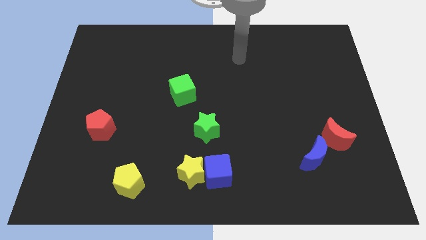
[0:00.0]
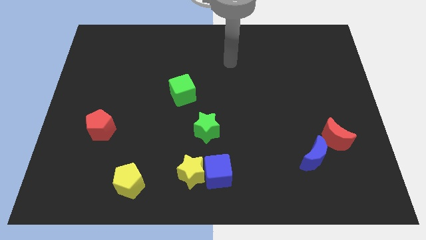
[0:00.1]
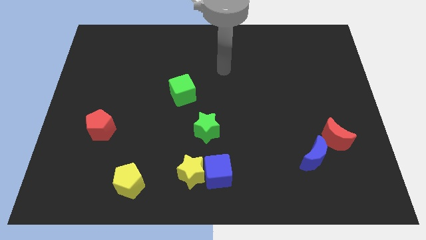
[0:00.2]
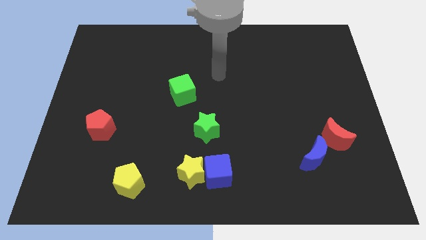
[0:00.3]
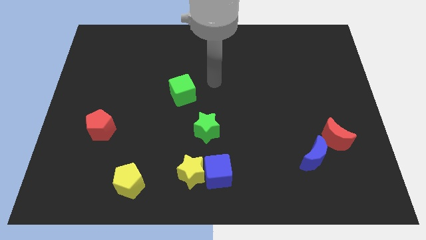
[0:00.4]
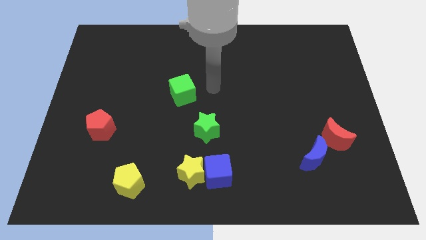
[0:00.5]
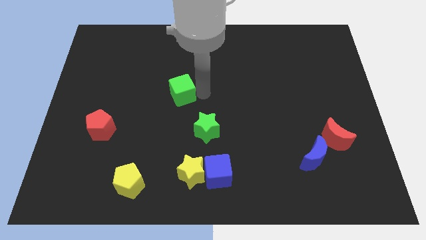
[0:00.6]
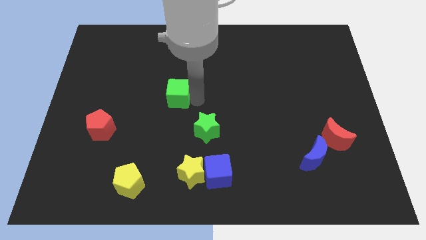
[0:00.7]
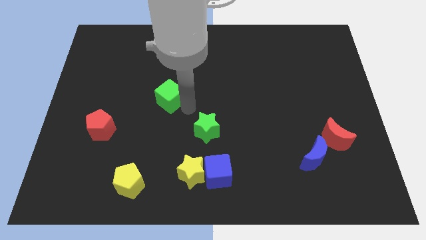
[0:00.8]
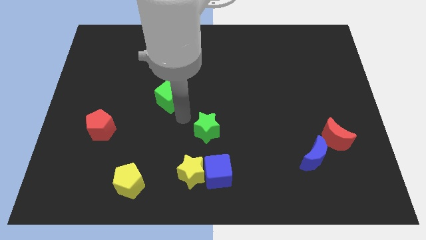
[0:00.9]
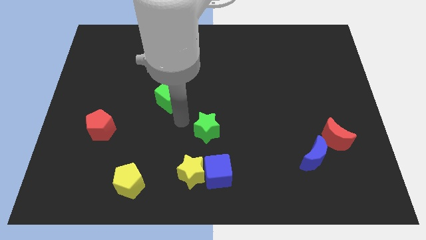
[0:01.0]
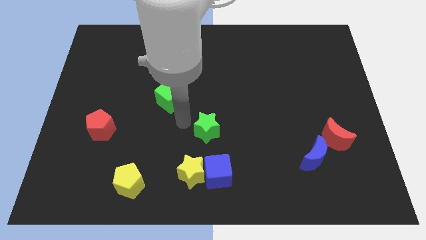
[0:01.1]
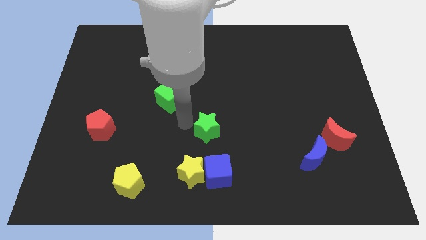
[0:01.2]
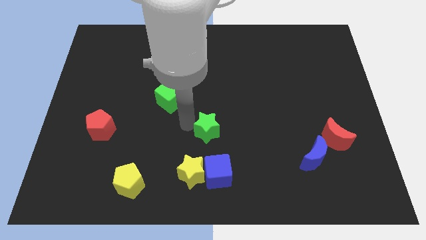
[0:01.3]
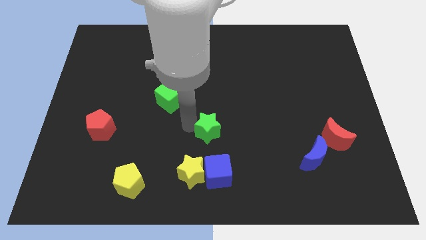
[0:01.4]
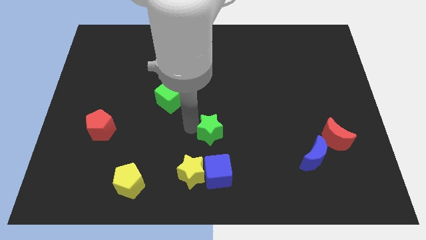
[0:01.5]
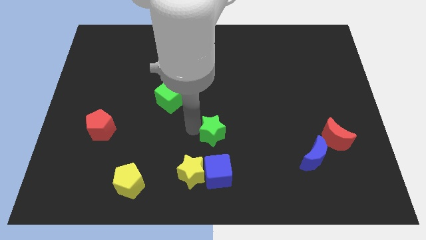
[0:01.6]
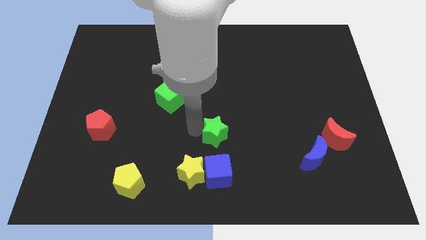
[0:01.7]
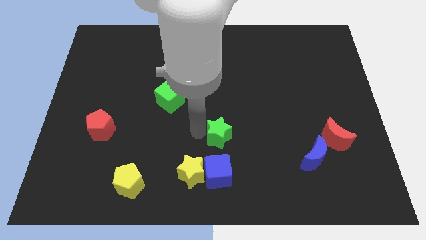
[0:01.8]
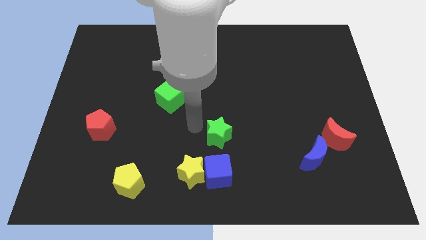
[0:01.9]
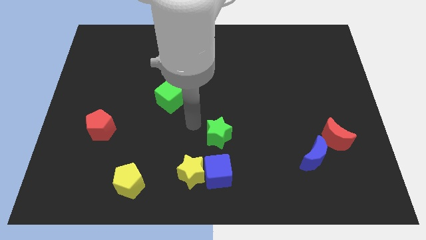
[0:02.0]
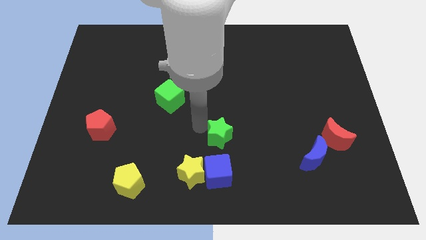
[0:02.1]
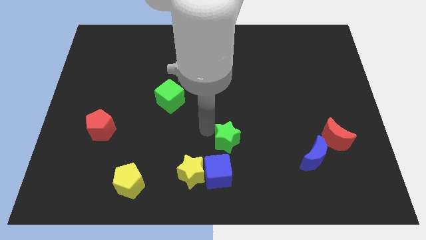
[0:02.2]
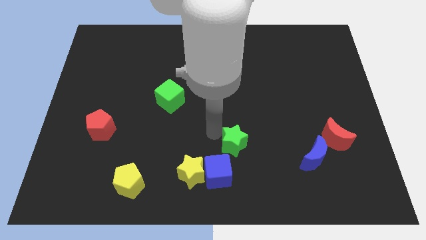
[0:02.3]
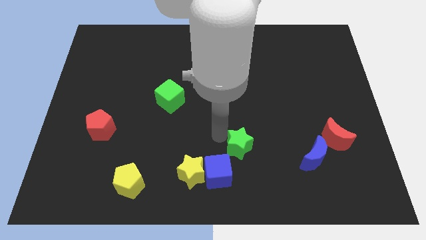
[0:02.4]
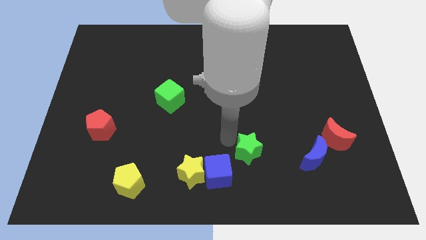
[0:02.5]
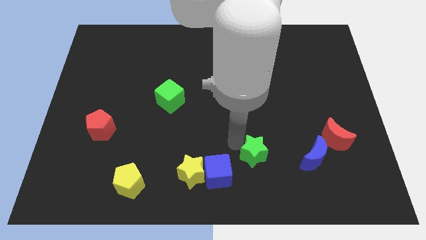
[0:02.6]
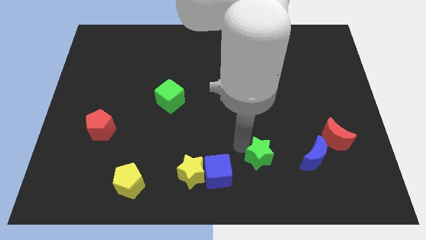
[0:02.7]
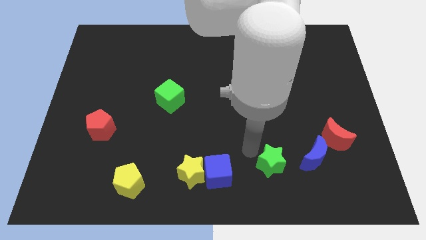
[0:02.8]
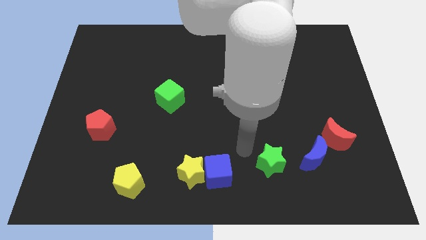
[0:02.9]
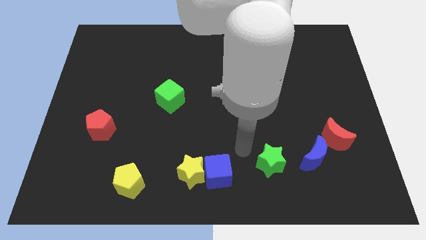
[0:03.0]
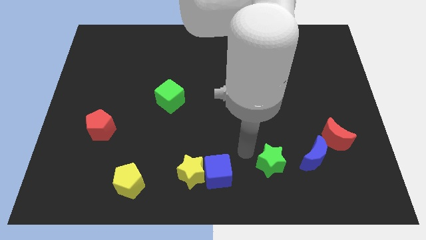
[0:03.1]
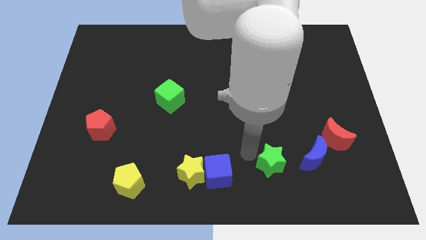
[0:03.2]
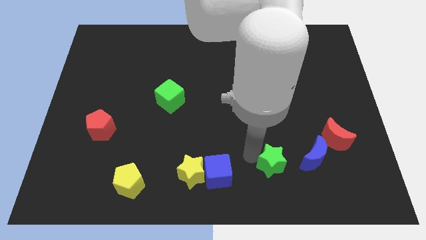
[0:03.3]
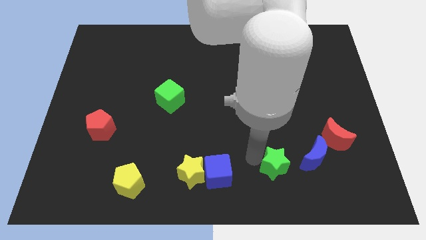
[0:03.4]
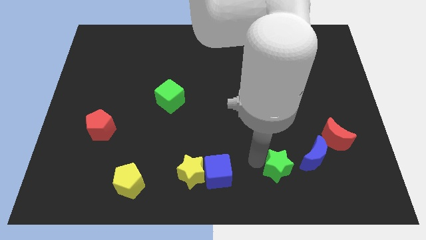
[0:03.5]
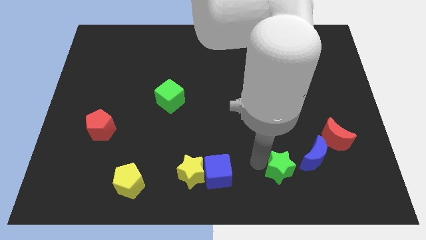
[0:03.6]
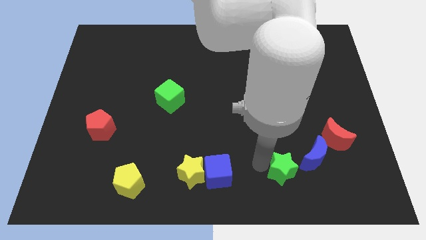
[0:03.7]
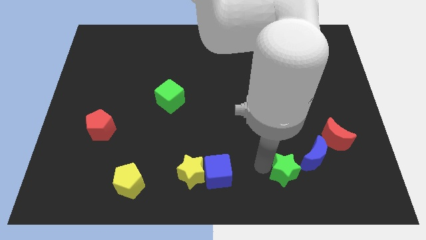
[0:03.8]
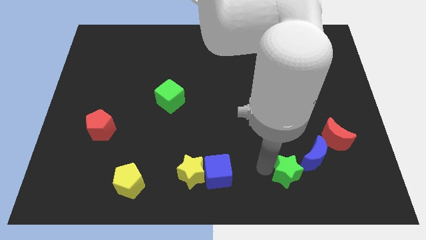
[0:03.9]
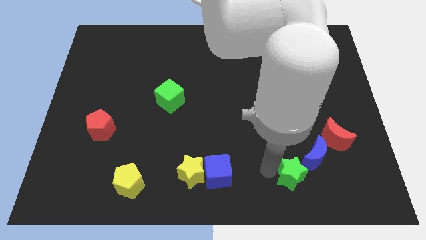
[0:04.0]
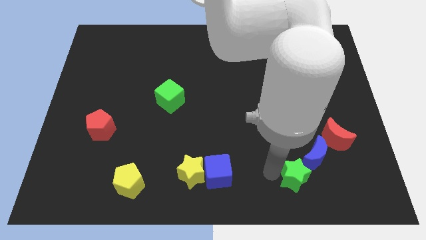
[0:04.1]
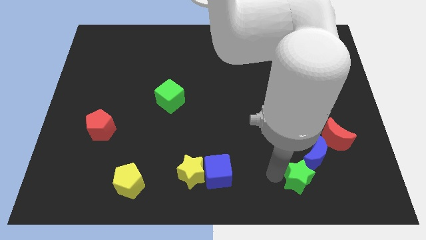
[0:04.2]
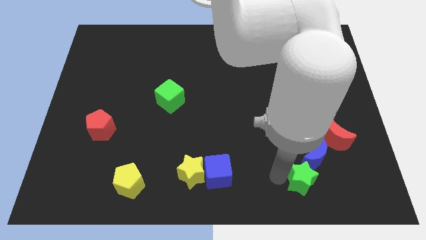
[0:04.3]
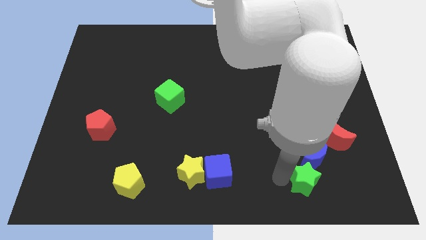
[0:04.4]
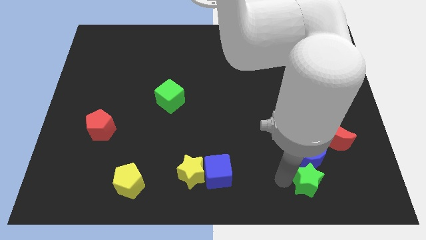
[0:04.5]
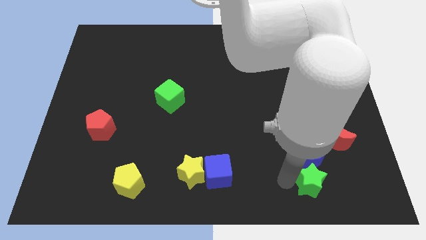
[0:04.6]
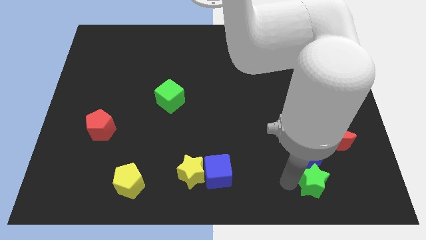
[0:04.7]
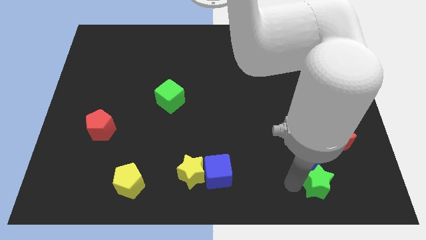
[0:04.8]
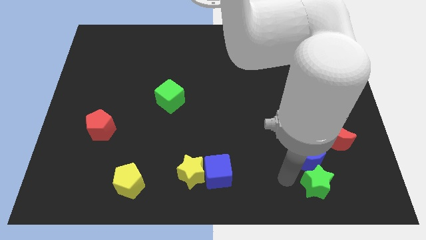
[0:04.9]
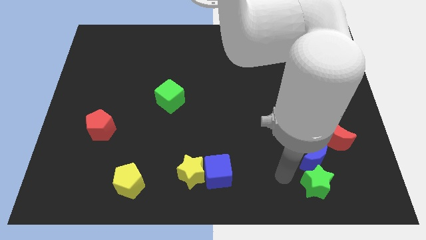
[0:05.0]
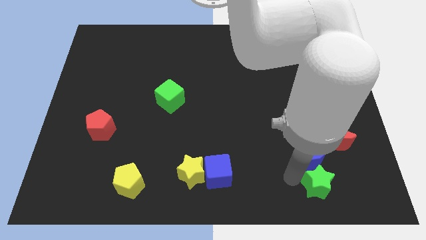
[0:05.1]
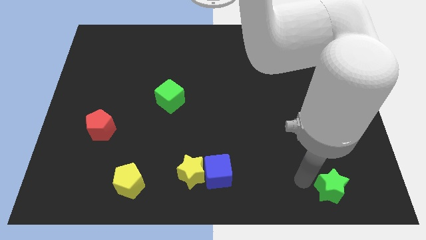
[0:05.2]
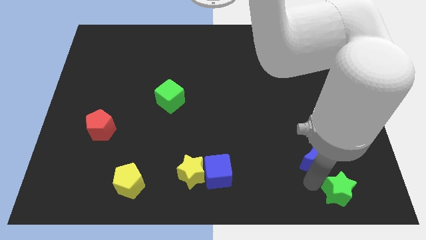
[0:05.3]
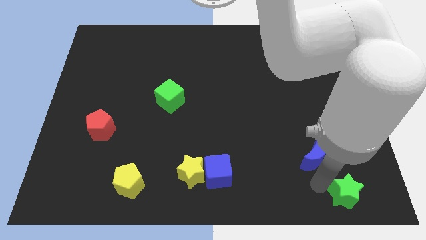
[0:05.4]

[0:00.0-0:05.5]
move the green star to the bottom right corner
